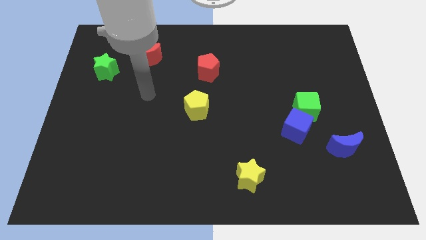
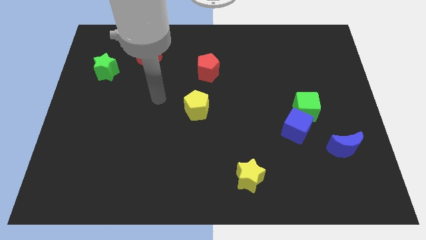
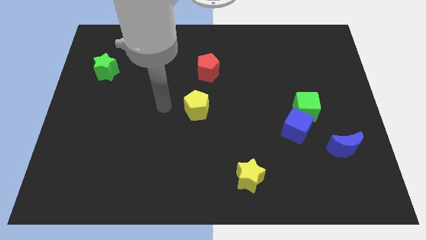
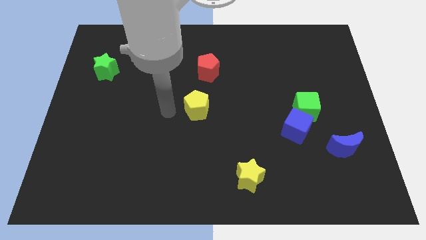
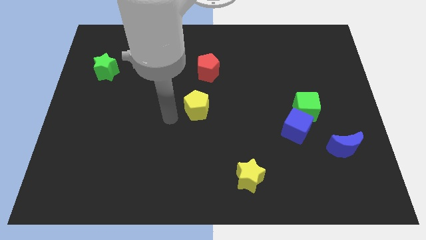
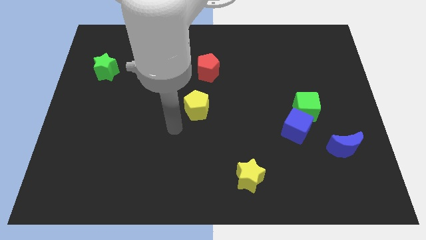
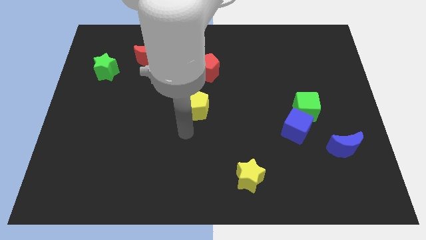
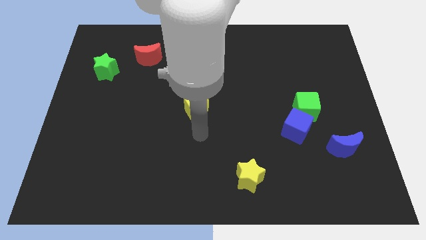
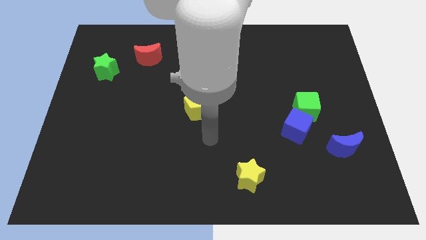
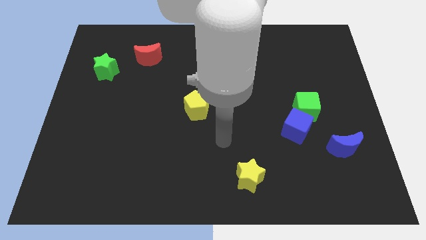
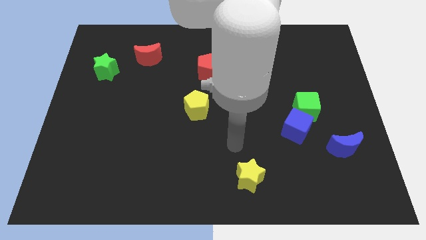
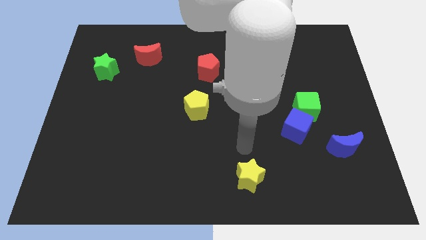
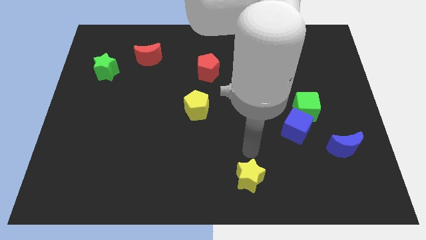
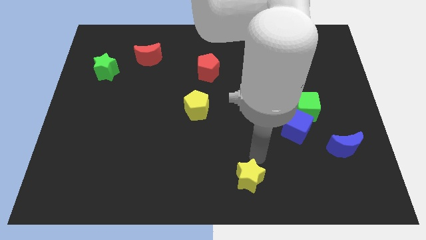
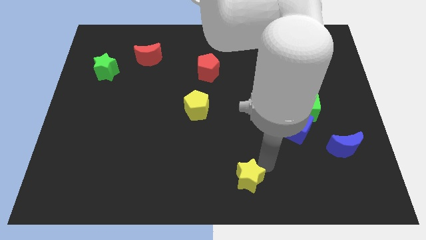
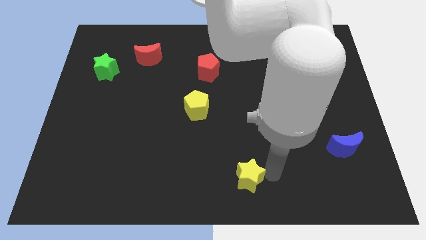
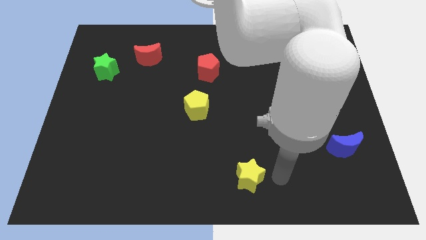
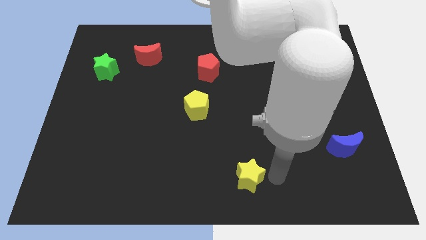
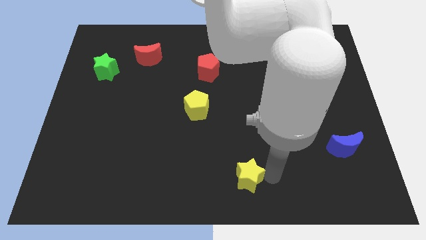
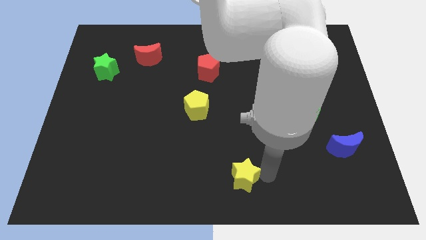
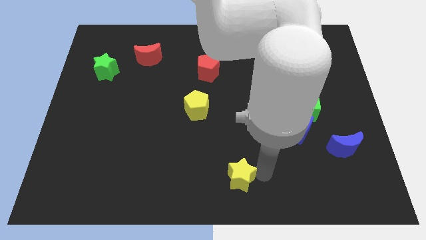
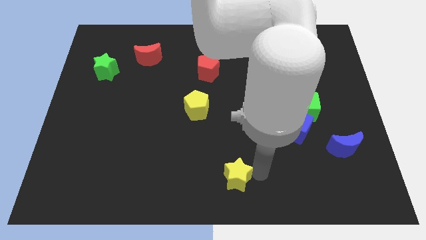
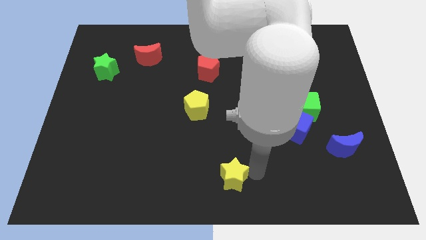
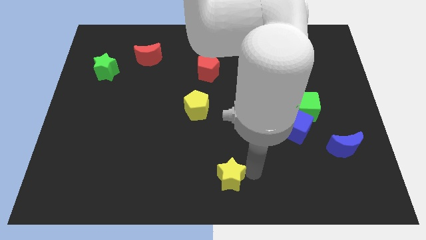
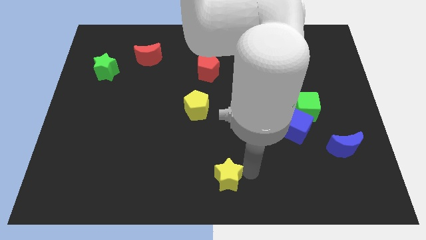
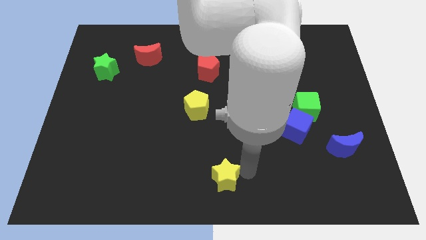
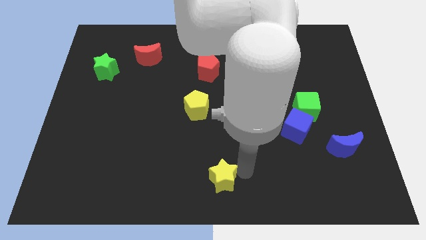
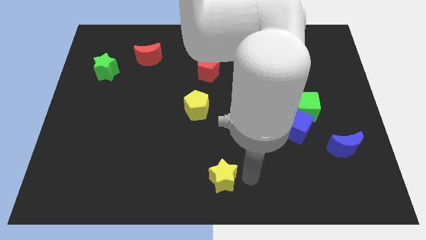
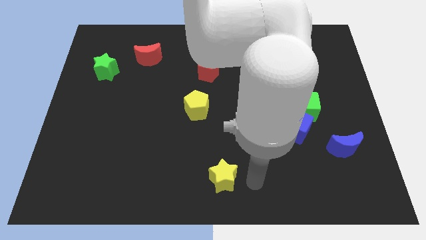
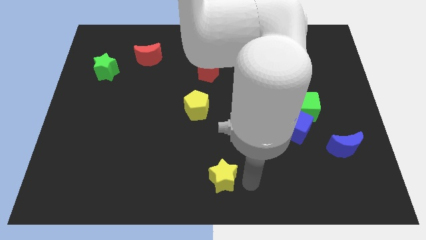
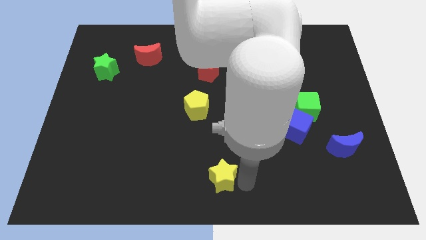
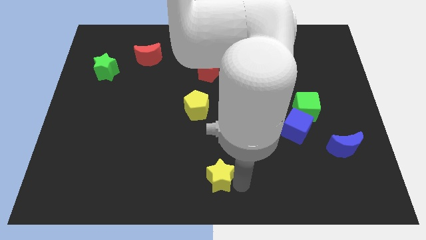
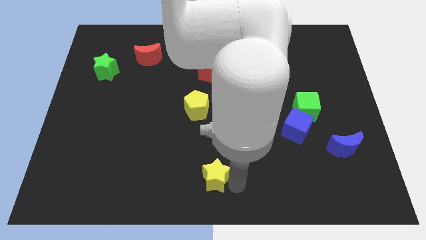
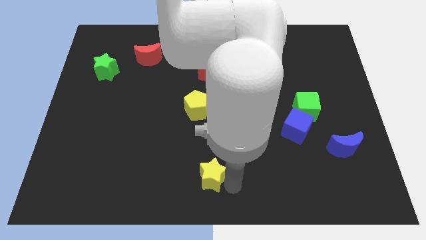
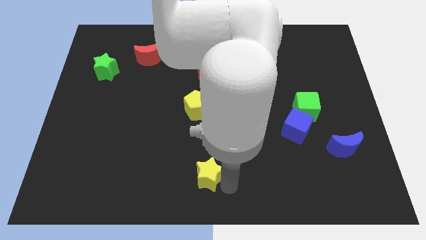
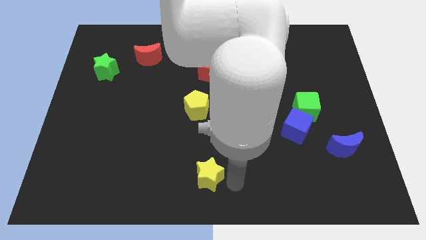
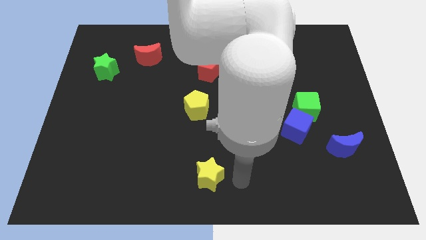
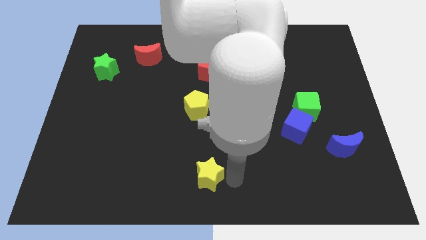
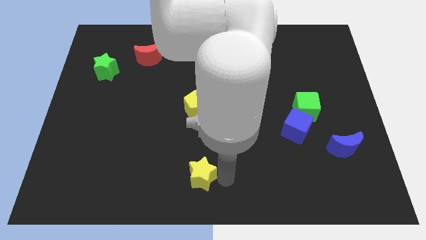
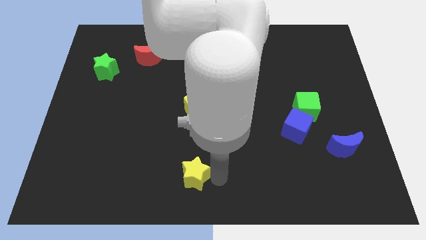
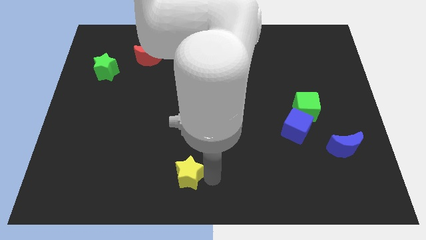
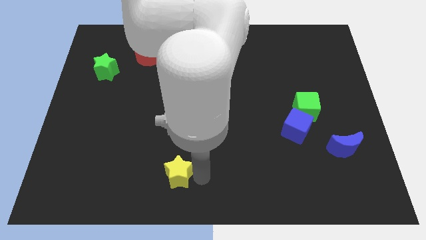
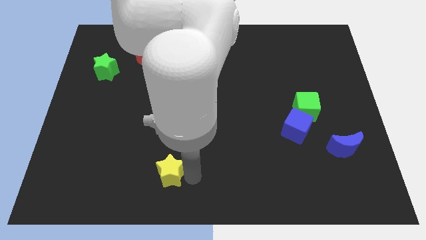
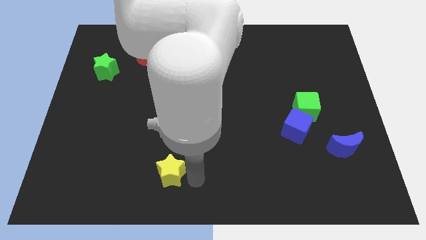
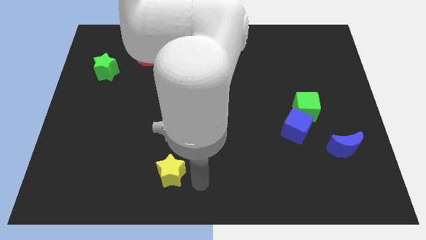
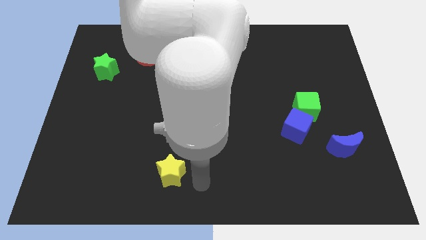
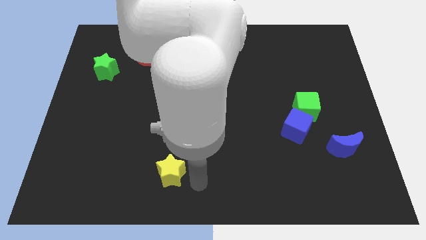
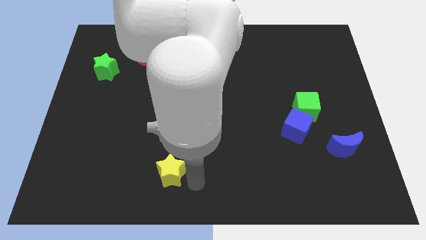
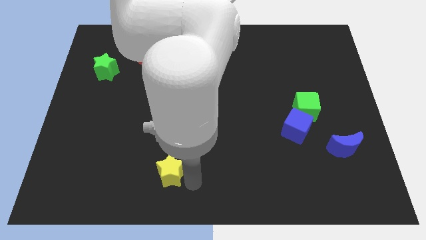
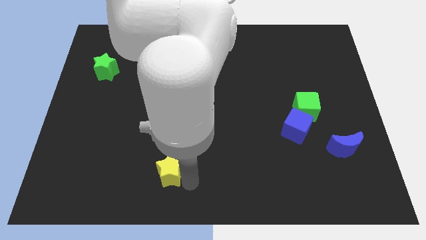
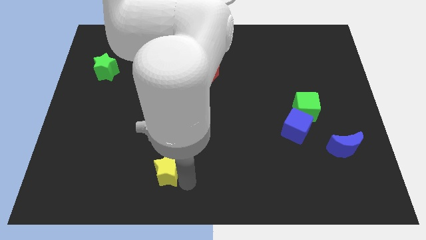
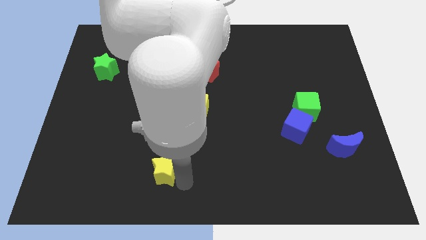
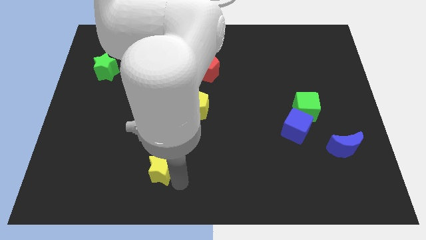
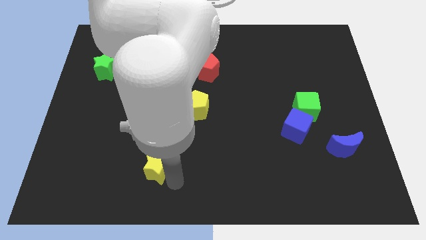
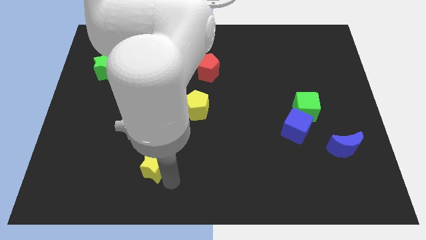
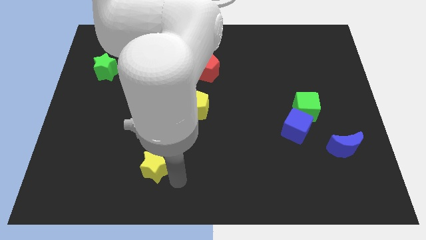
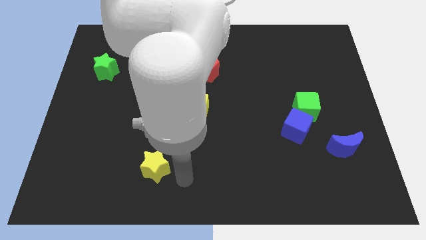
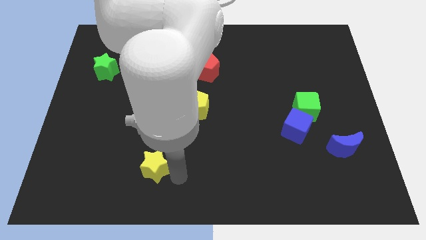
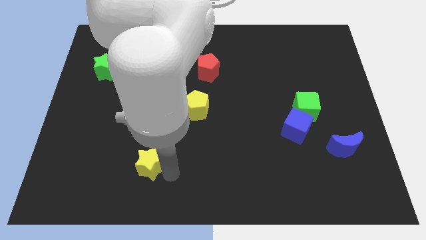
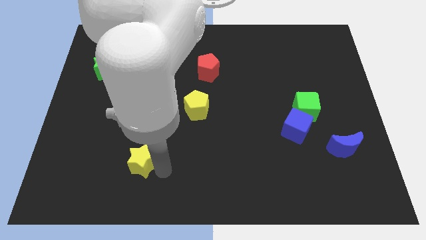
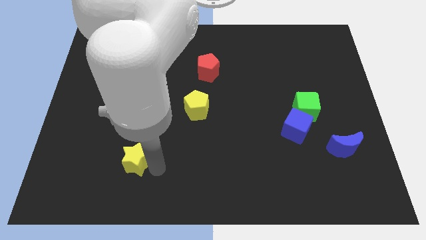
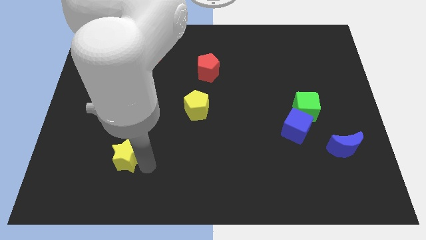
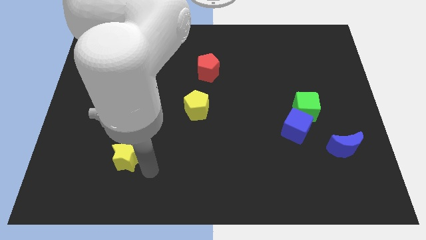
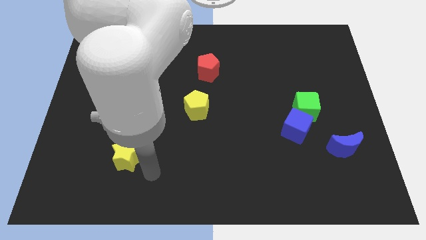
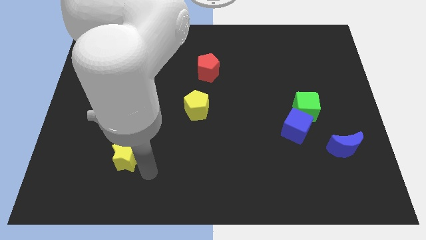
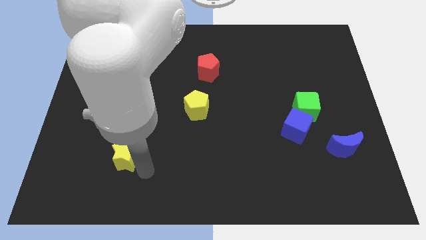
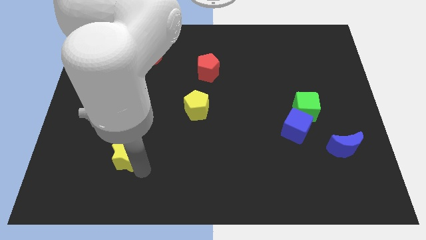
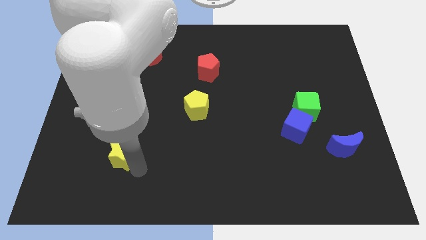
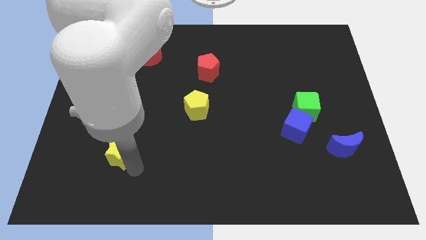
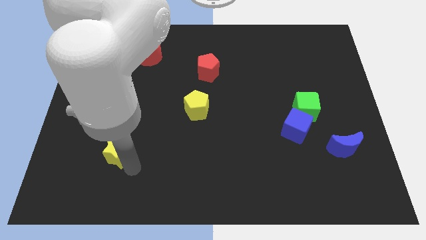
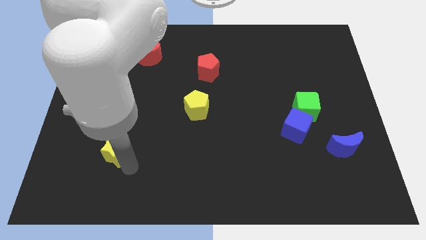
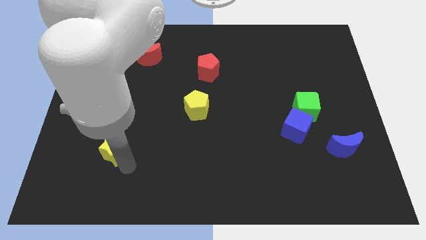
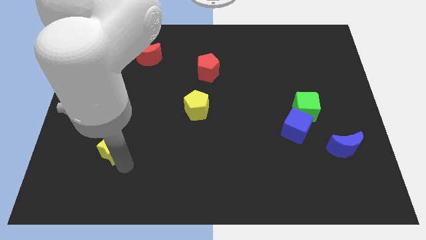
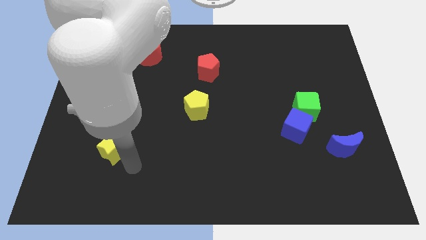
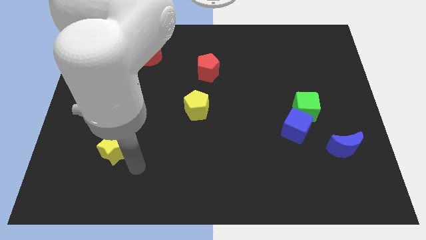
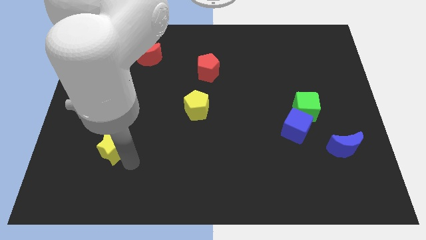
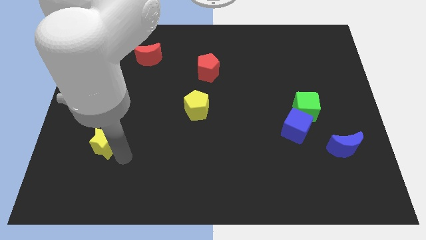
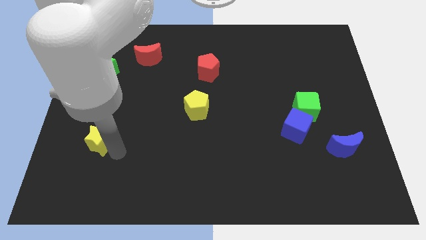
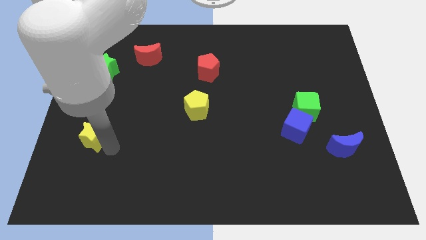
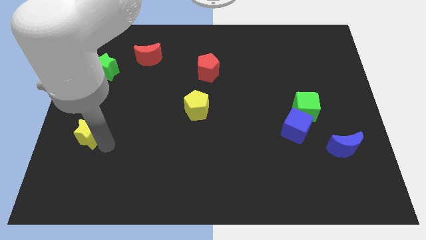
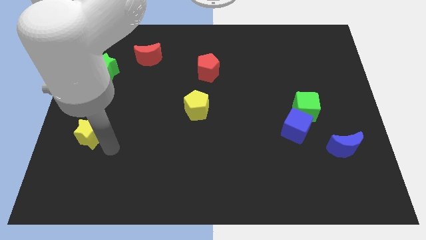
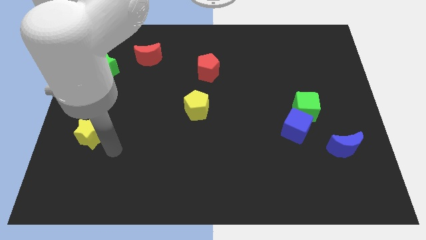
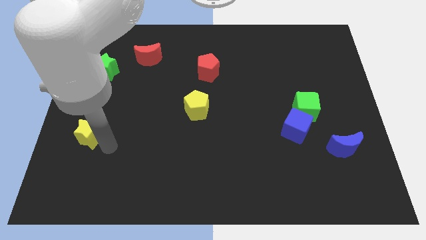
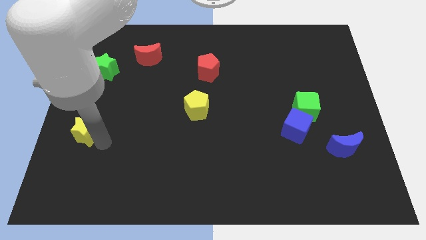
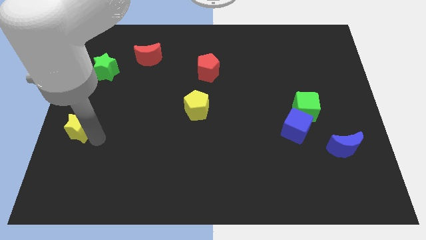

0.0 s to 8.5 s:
put the yellow star to the center left
